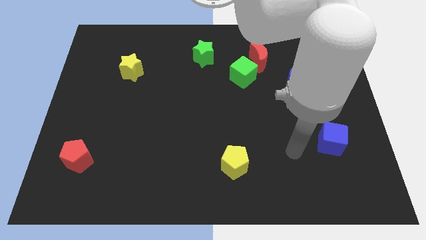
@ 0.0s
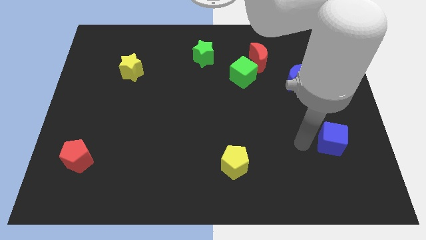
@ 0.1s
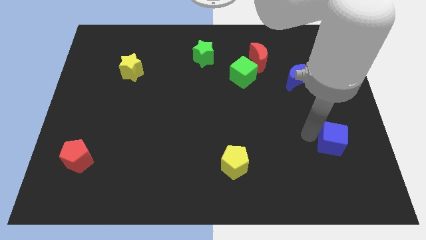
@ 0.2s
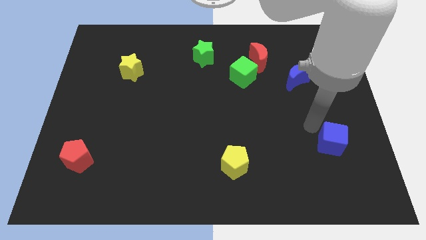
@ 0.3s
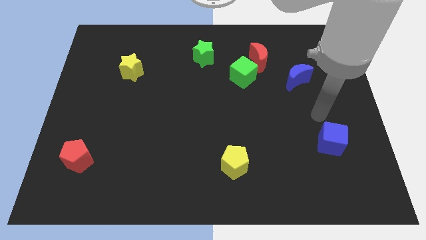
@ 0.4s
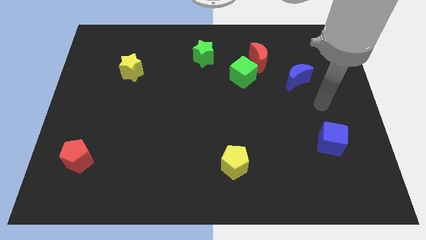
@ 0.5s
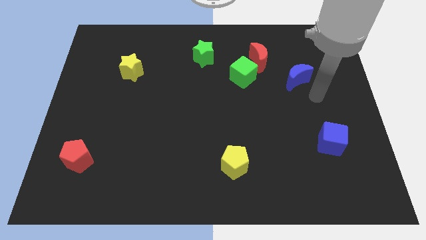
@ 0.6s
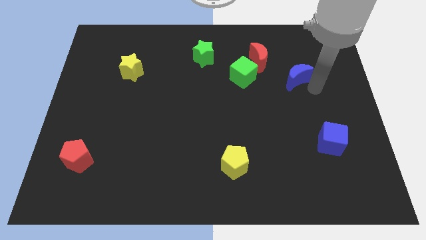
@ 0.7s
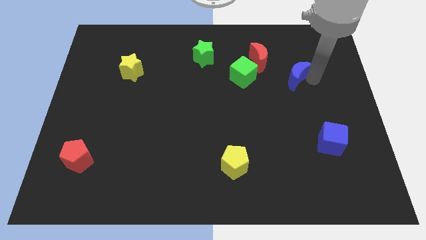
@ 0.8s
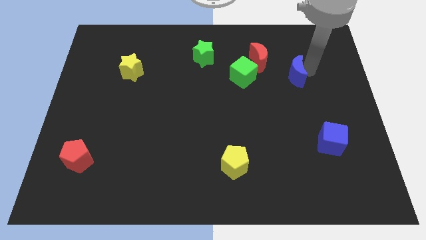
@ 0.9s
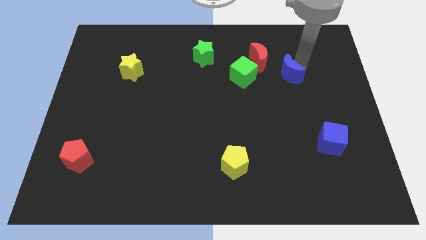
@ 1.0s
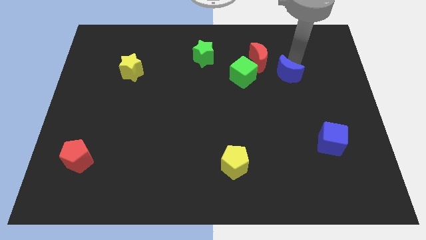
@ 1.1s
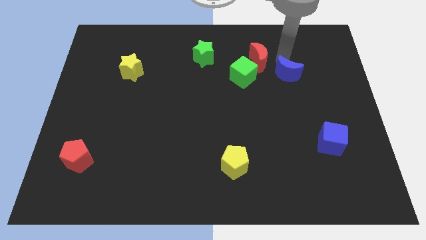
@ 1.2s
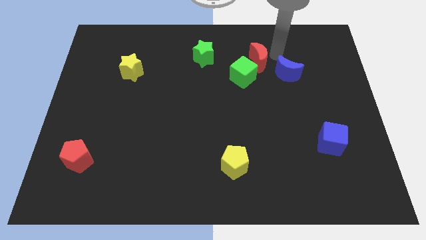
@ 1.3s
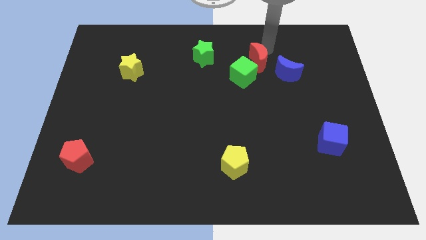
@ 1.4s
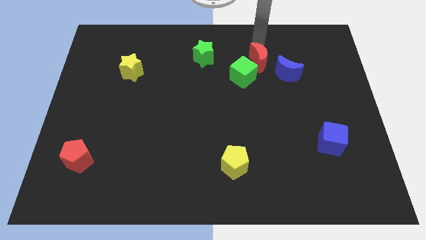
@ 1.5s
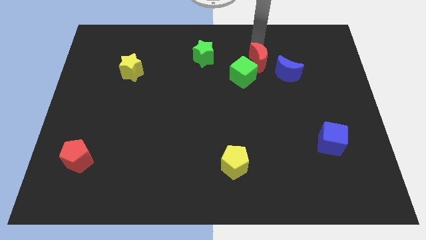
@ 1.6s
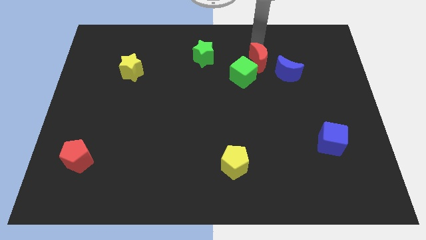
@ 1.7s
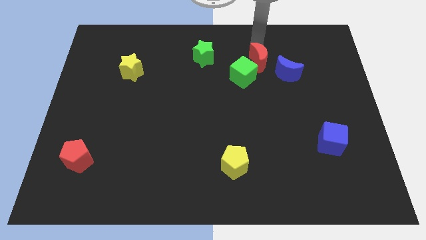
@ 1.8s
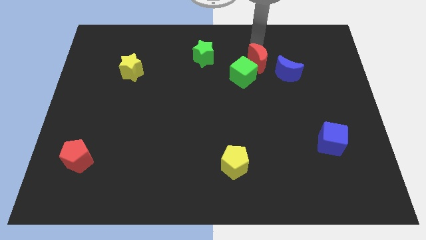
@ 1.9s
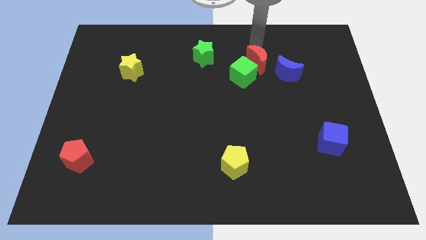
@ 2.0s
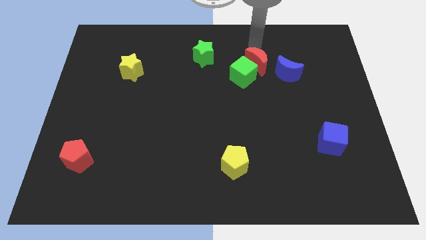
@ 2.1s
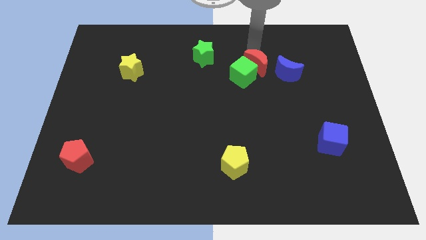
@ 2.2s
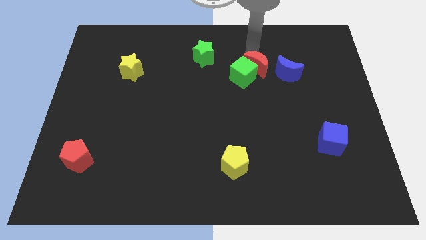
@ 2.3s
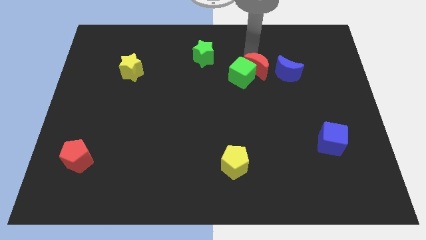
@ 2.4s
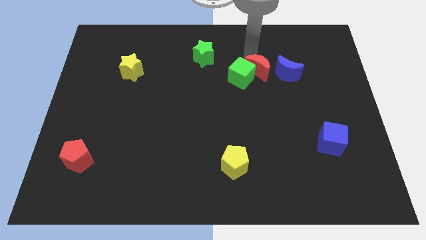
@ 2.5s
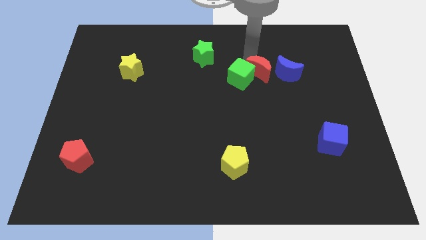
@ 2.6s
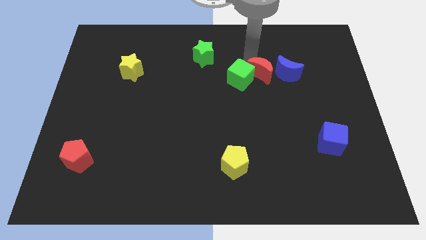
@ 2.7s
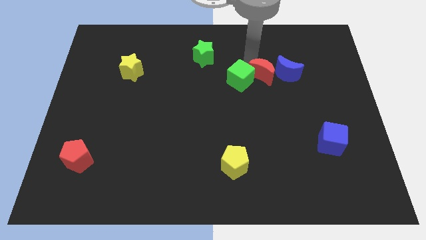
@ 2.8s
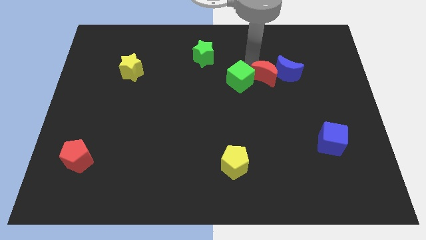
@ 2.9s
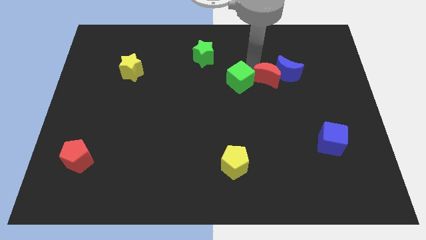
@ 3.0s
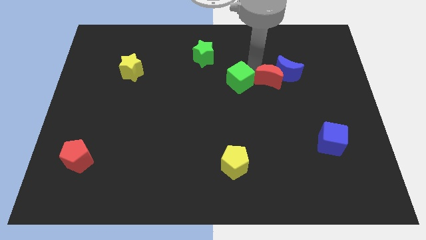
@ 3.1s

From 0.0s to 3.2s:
push the red moon downwards a little

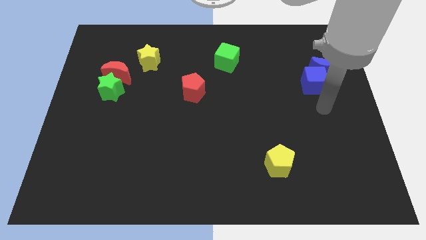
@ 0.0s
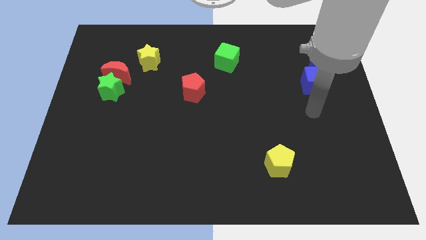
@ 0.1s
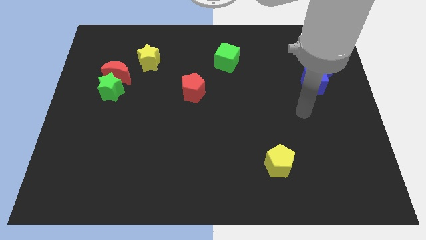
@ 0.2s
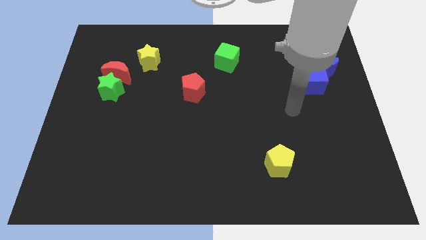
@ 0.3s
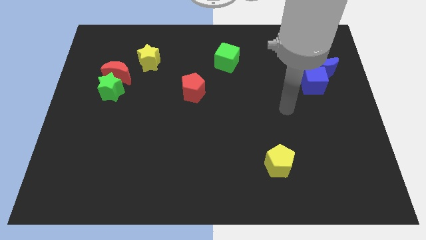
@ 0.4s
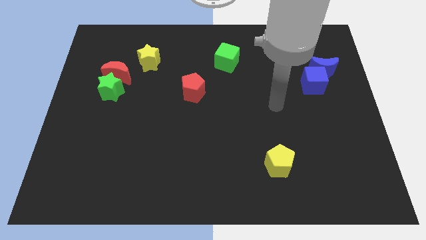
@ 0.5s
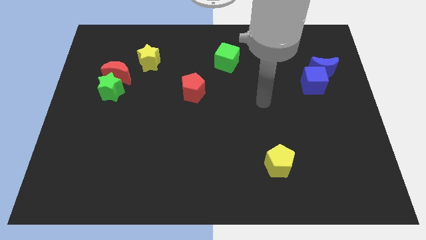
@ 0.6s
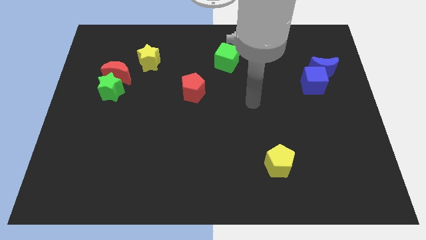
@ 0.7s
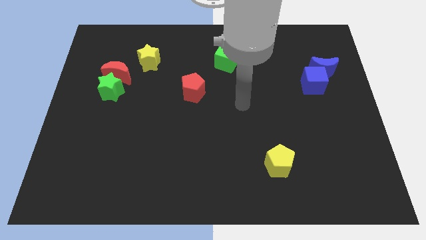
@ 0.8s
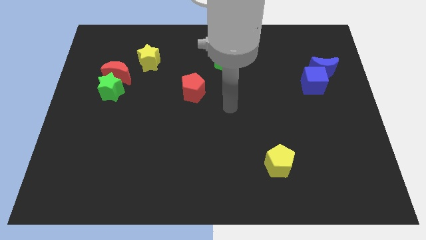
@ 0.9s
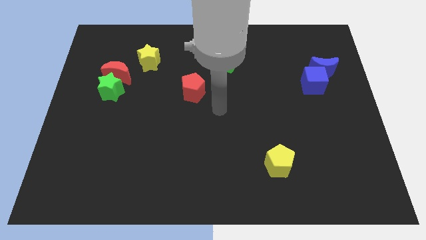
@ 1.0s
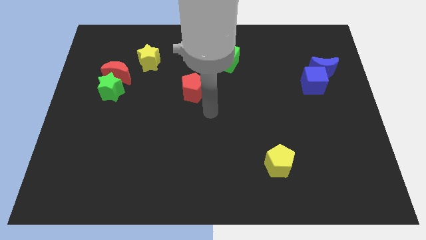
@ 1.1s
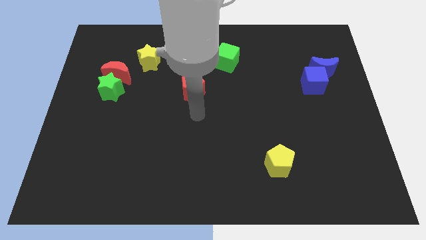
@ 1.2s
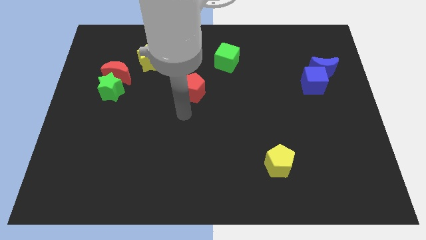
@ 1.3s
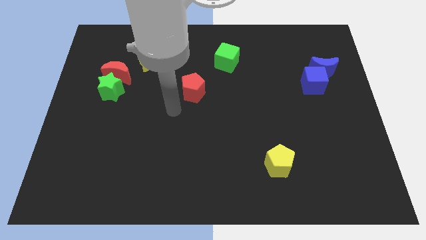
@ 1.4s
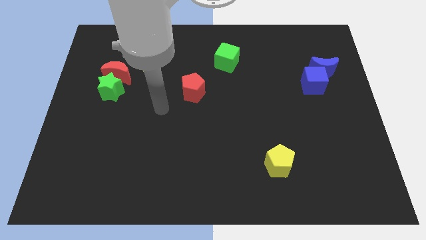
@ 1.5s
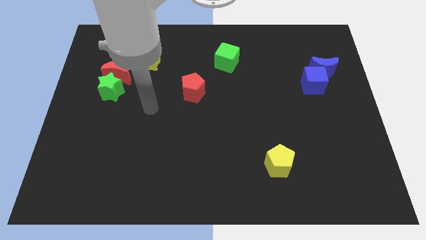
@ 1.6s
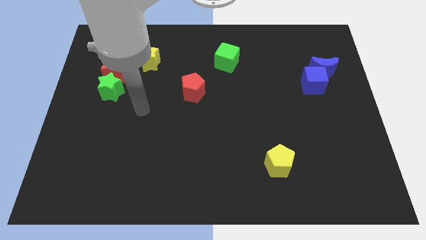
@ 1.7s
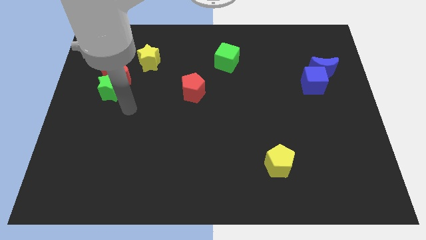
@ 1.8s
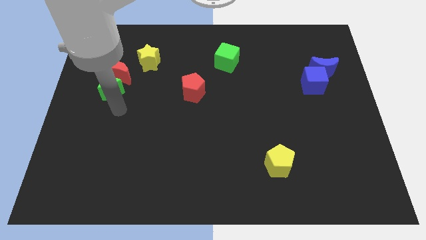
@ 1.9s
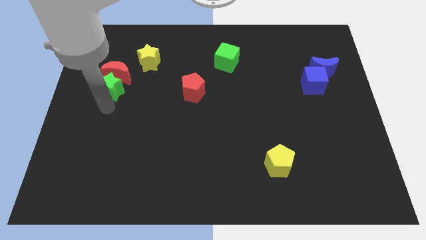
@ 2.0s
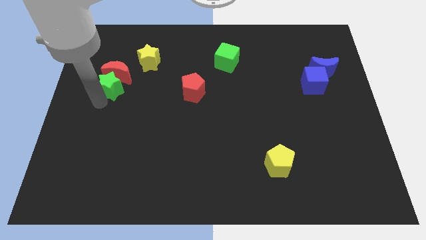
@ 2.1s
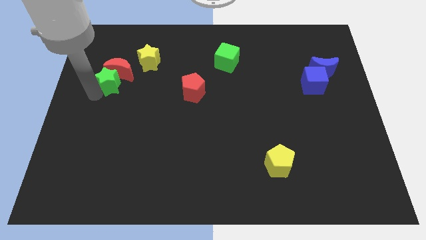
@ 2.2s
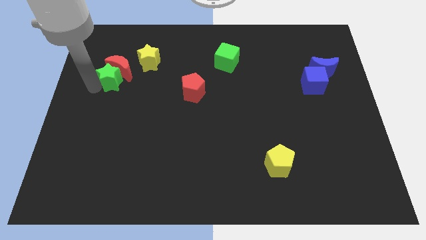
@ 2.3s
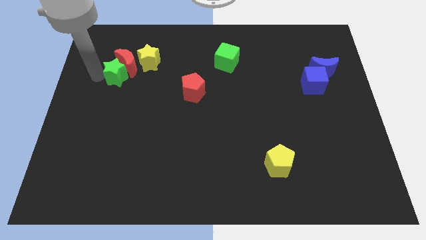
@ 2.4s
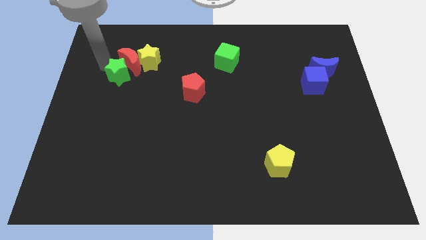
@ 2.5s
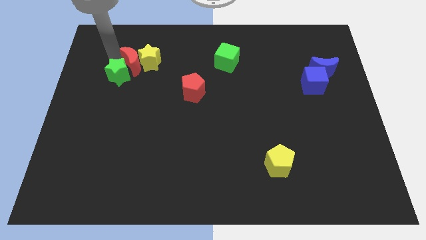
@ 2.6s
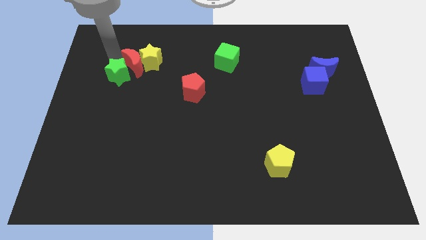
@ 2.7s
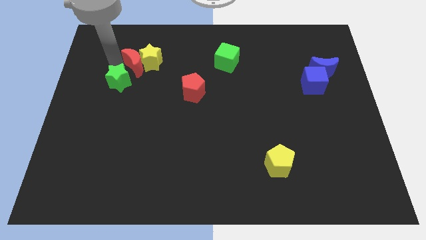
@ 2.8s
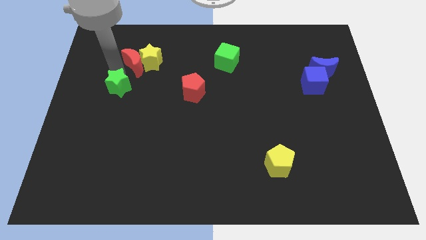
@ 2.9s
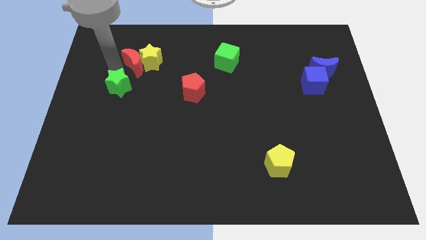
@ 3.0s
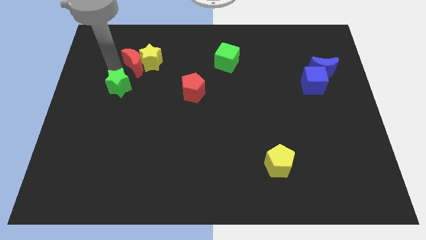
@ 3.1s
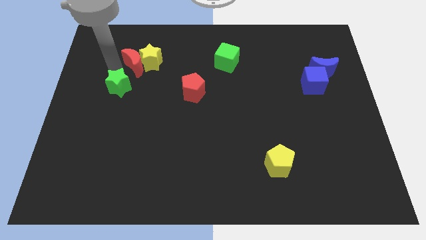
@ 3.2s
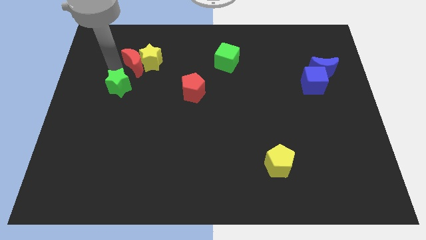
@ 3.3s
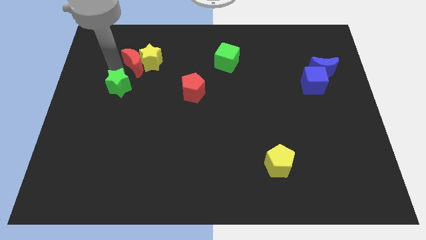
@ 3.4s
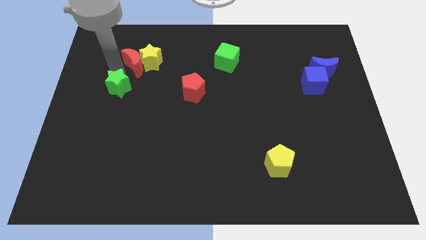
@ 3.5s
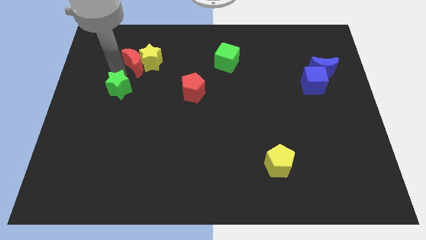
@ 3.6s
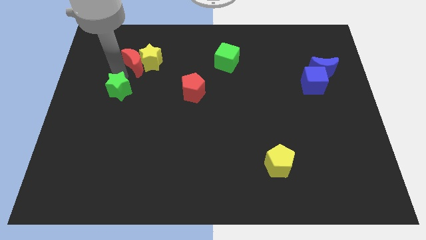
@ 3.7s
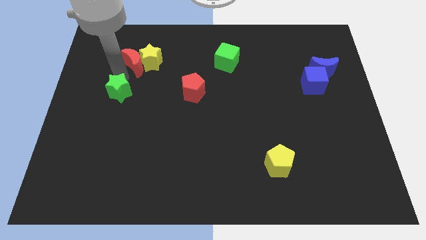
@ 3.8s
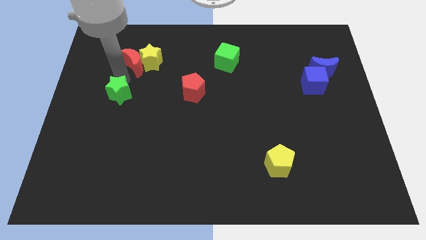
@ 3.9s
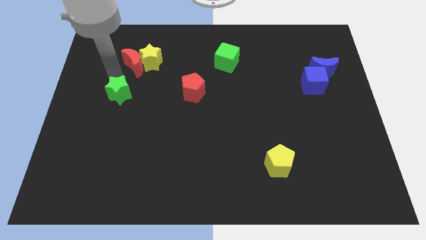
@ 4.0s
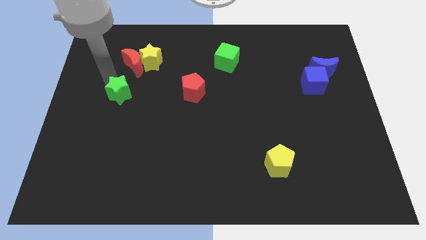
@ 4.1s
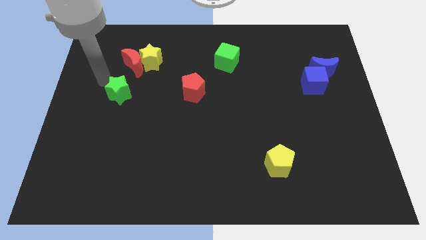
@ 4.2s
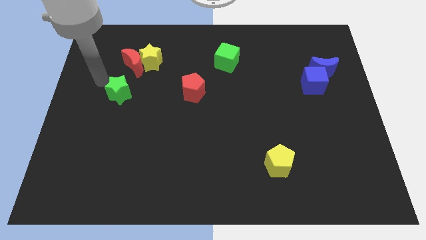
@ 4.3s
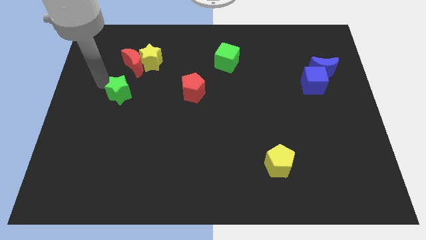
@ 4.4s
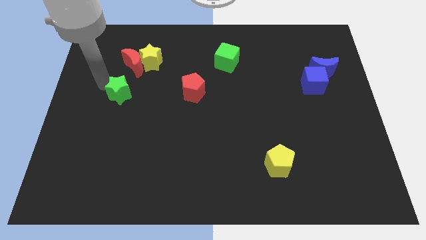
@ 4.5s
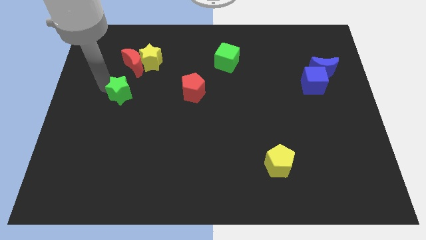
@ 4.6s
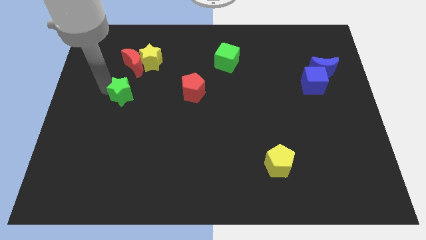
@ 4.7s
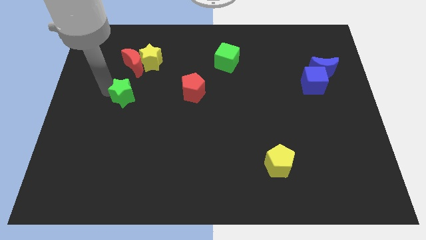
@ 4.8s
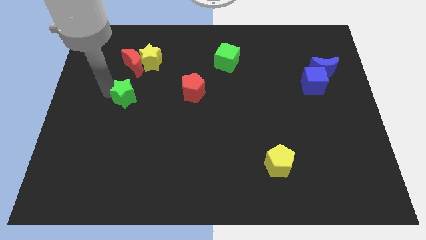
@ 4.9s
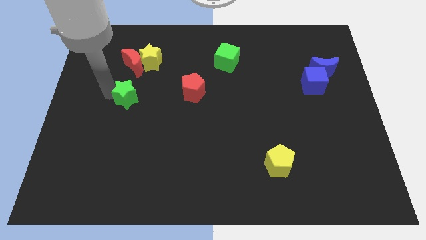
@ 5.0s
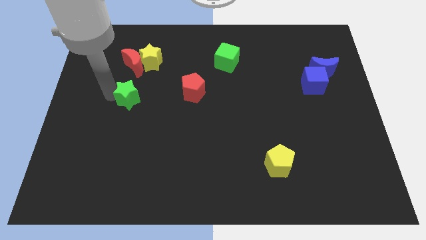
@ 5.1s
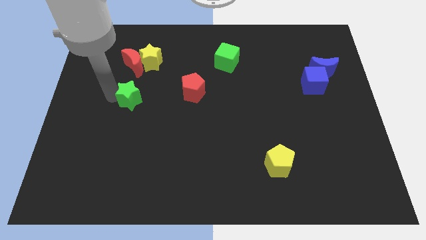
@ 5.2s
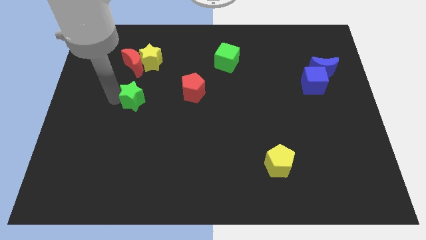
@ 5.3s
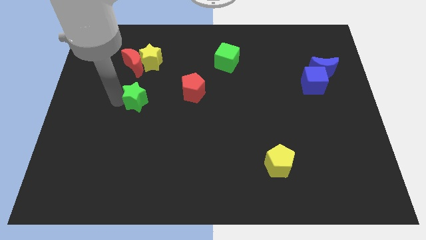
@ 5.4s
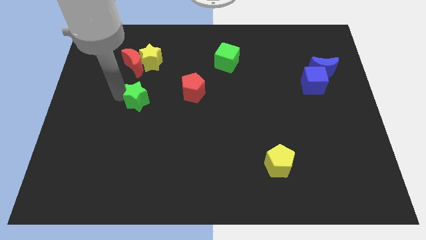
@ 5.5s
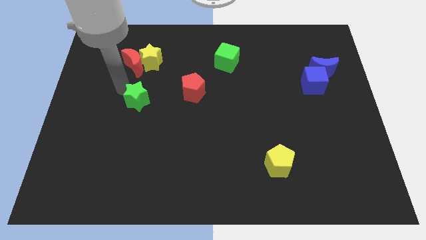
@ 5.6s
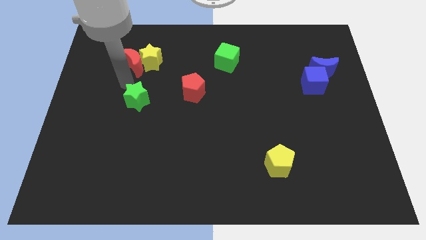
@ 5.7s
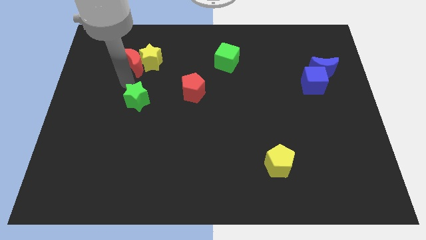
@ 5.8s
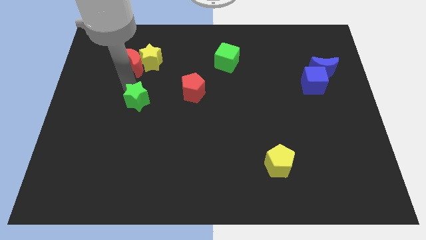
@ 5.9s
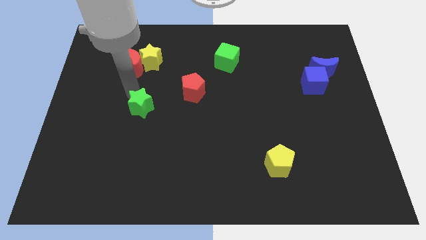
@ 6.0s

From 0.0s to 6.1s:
move the green star diagonally downwards and to the right a little
